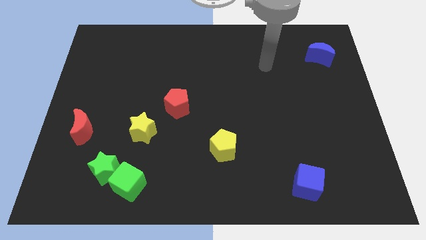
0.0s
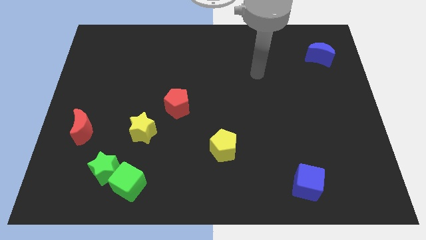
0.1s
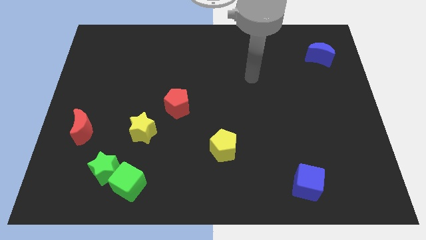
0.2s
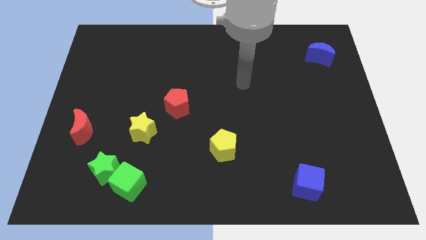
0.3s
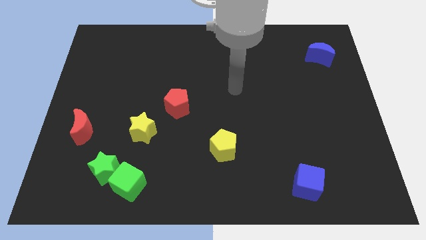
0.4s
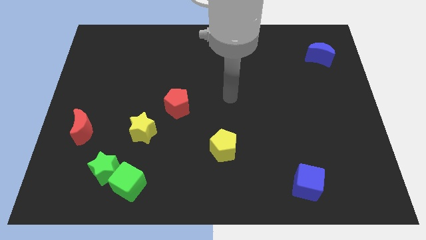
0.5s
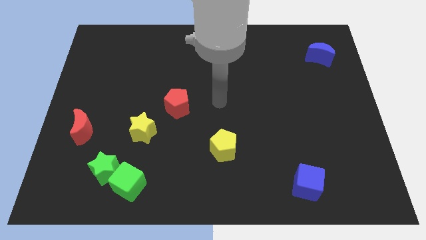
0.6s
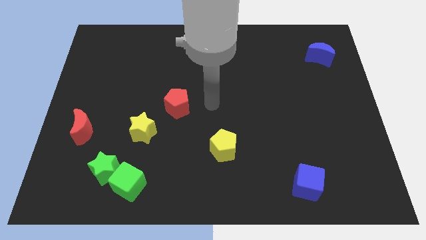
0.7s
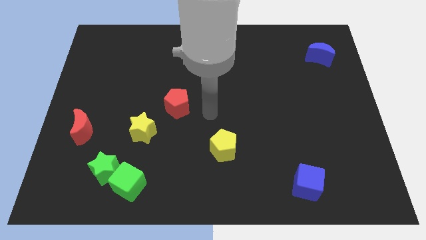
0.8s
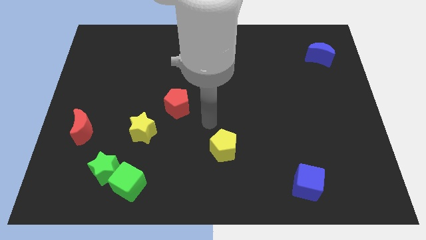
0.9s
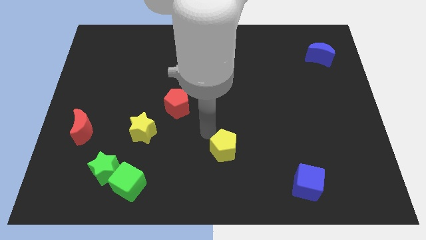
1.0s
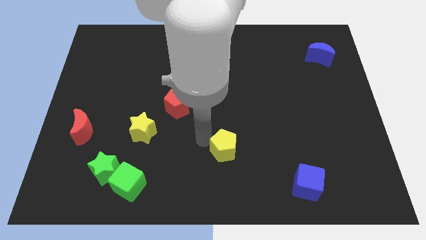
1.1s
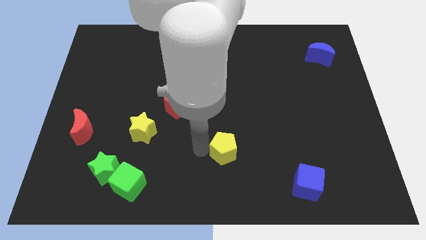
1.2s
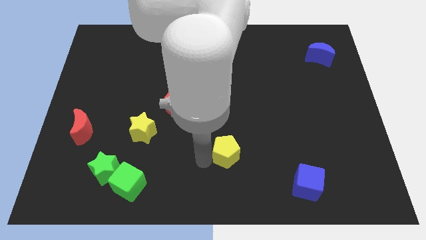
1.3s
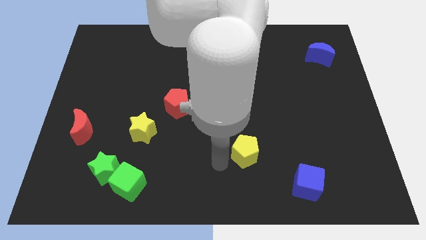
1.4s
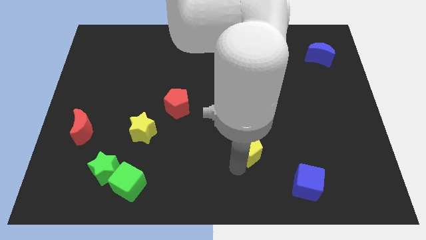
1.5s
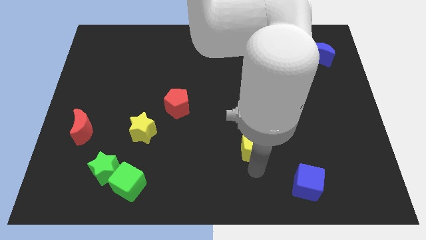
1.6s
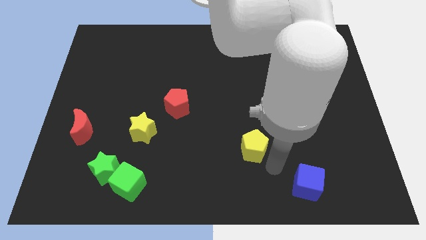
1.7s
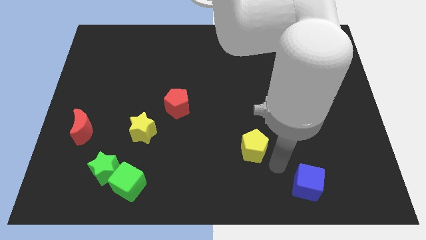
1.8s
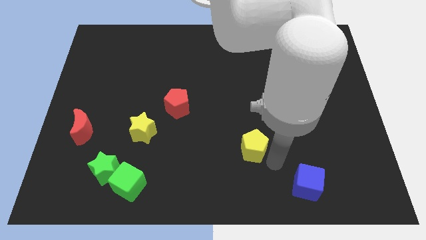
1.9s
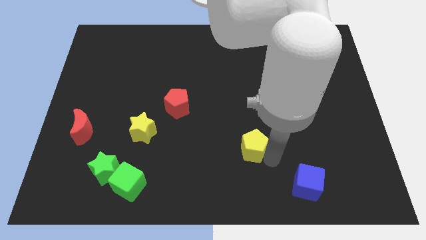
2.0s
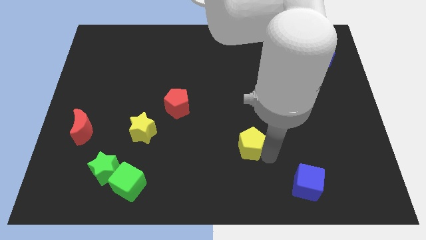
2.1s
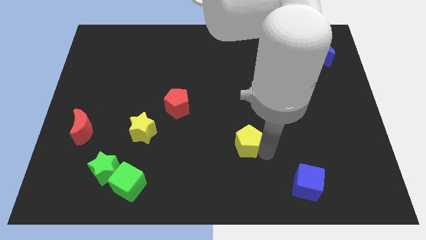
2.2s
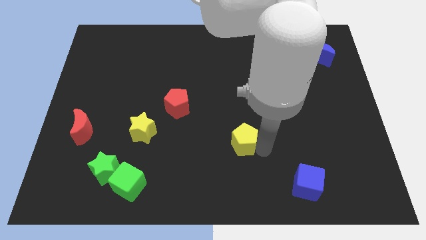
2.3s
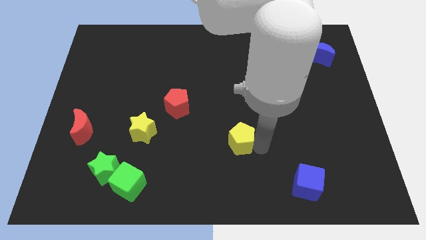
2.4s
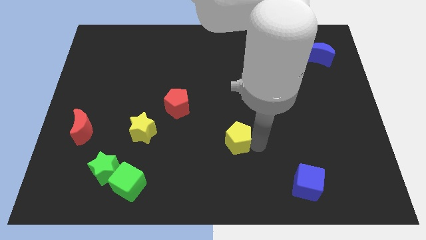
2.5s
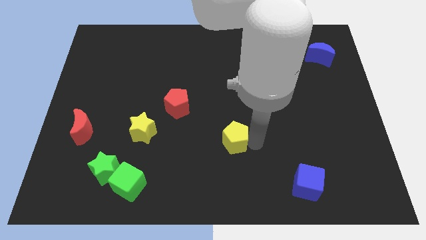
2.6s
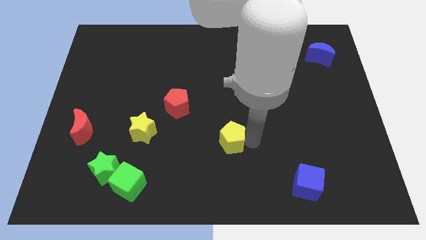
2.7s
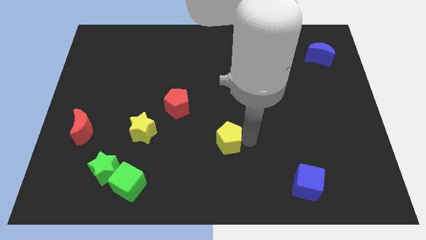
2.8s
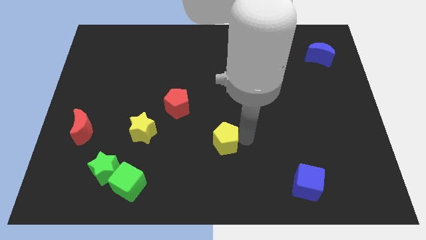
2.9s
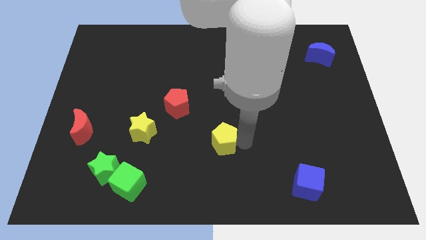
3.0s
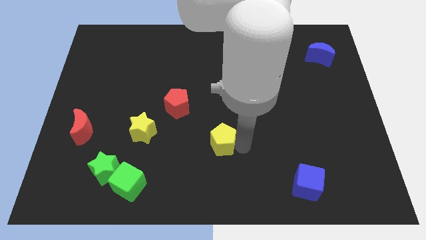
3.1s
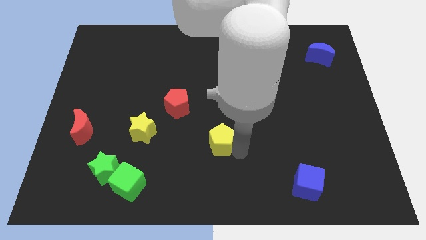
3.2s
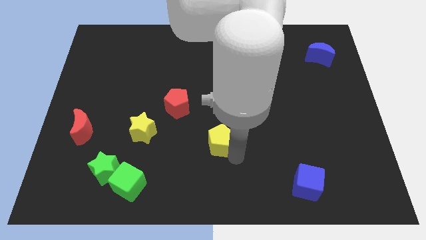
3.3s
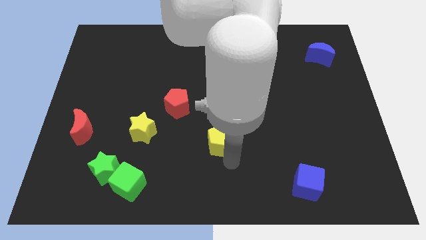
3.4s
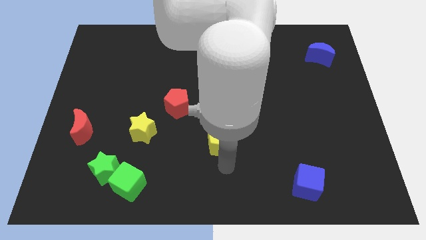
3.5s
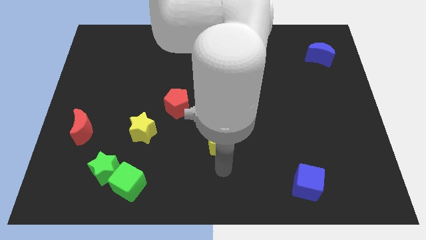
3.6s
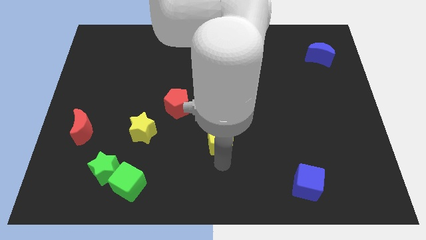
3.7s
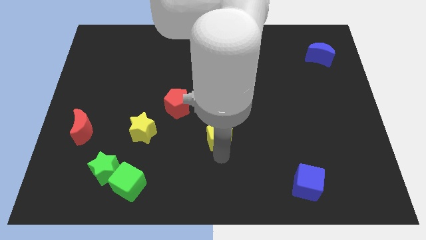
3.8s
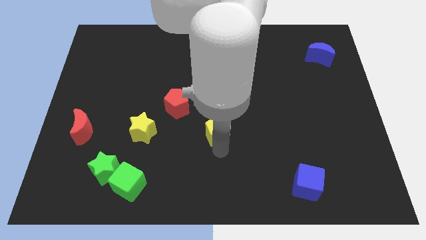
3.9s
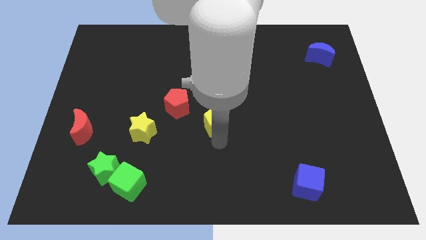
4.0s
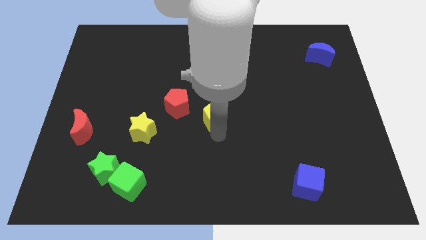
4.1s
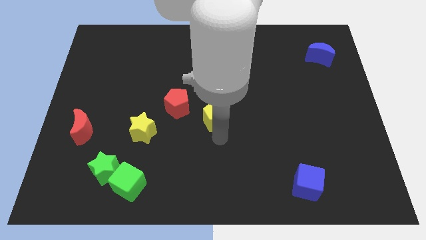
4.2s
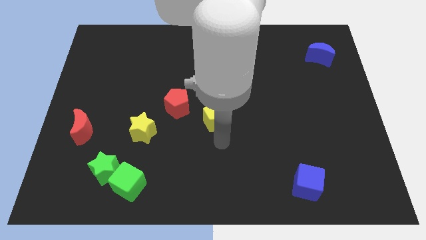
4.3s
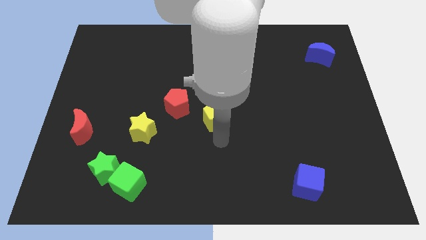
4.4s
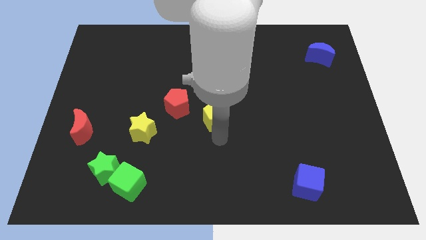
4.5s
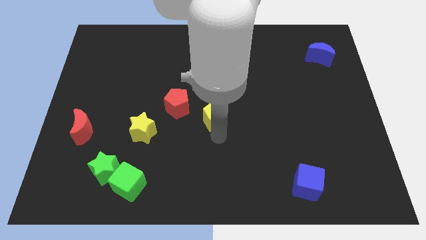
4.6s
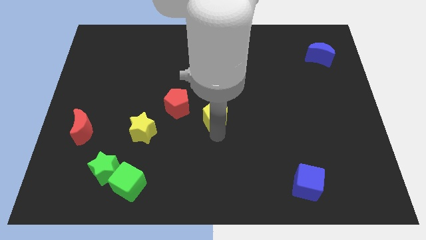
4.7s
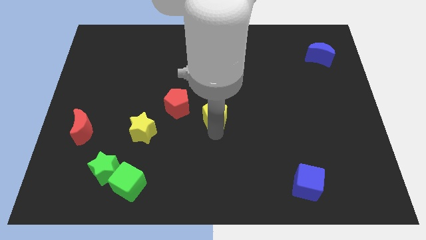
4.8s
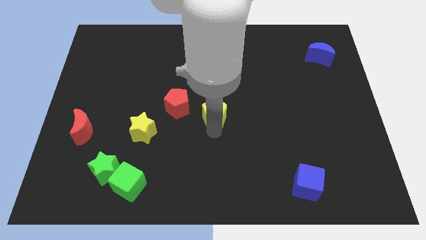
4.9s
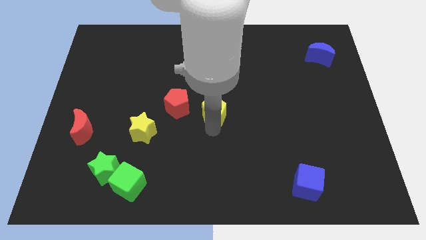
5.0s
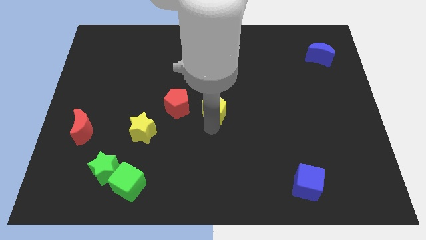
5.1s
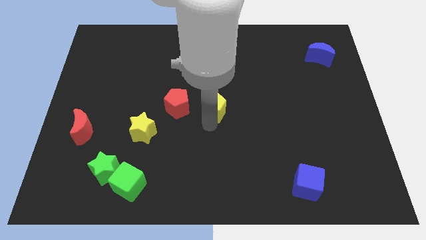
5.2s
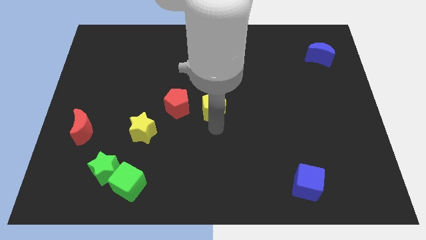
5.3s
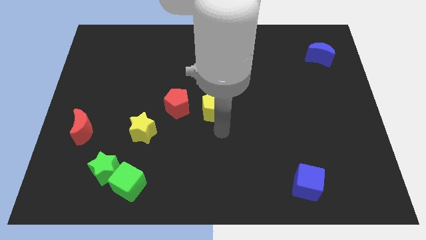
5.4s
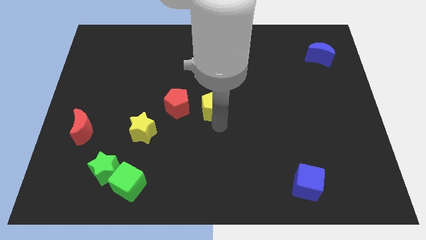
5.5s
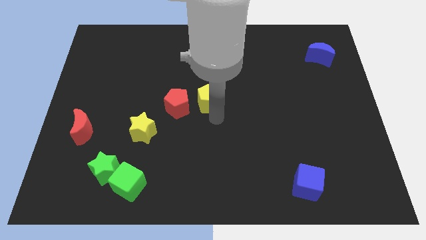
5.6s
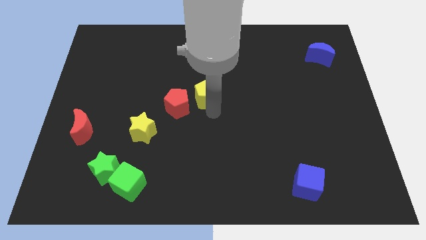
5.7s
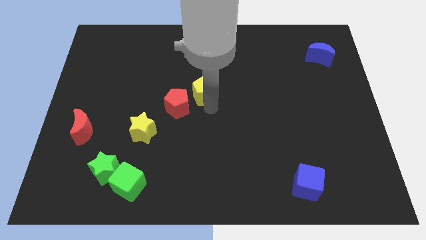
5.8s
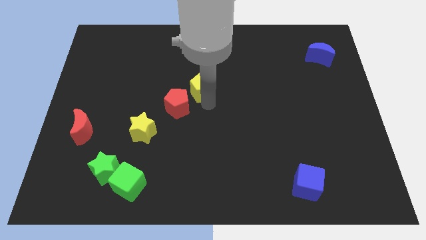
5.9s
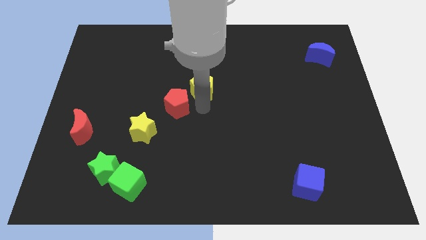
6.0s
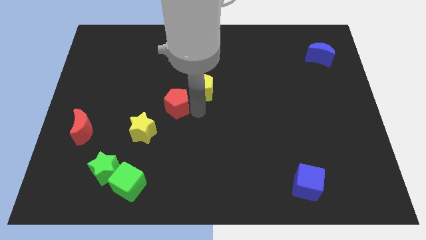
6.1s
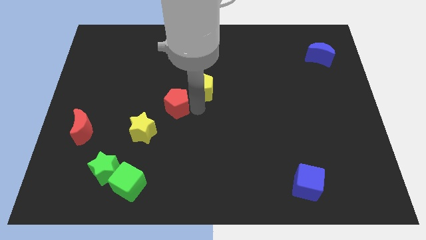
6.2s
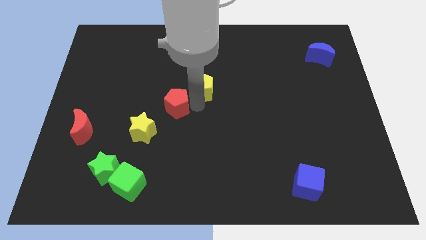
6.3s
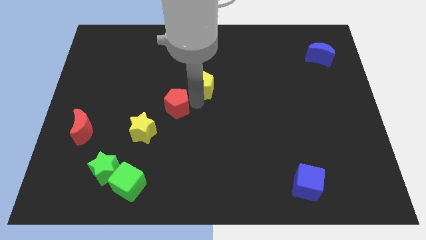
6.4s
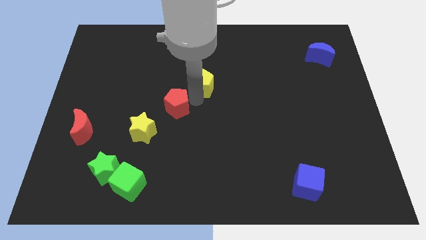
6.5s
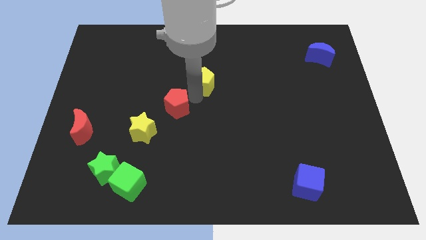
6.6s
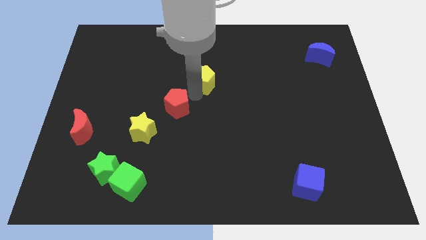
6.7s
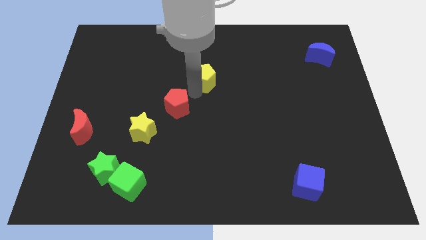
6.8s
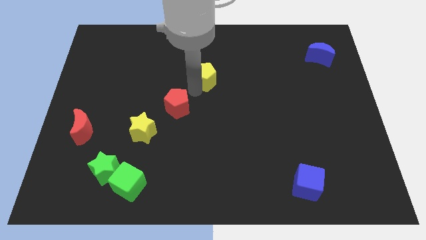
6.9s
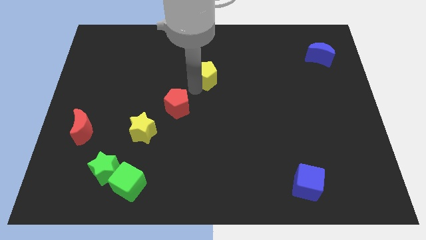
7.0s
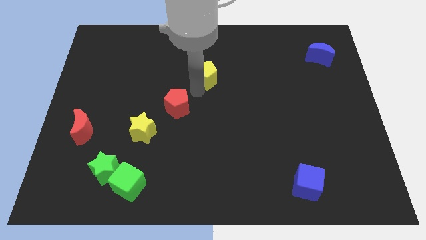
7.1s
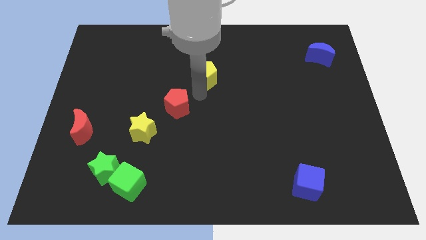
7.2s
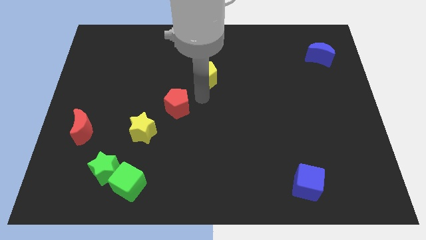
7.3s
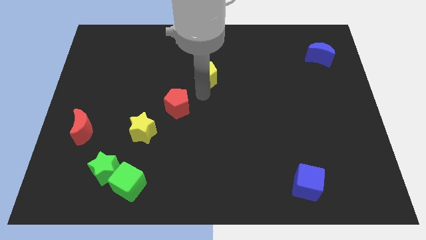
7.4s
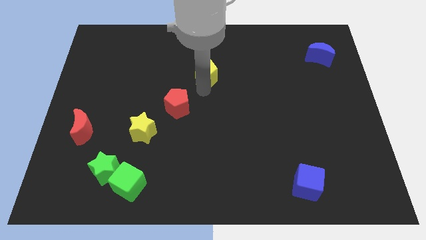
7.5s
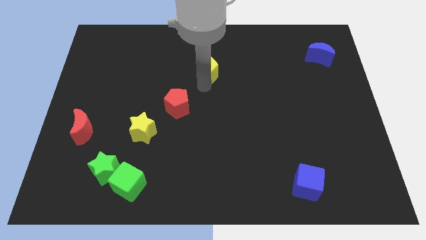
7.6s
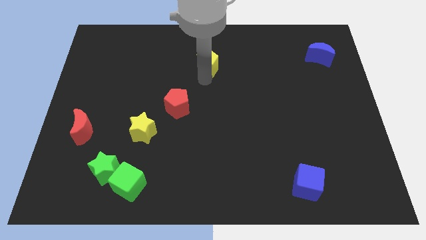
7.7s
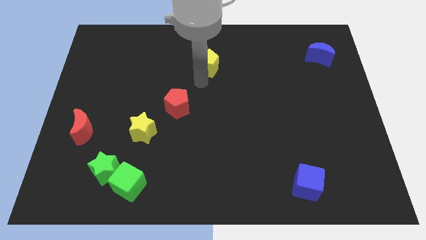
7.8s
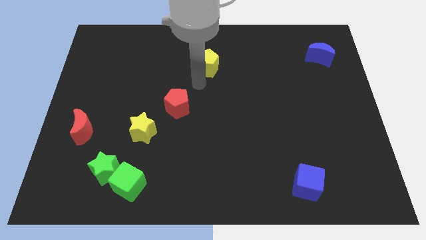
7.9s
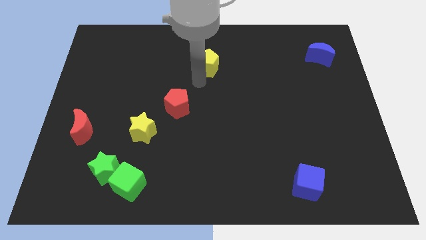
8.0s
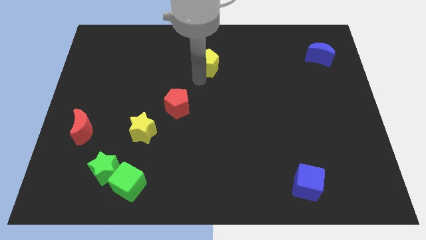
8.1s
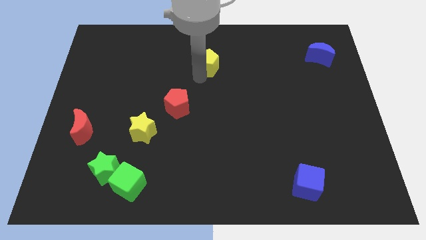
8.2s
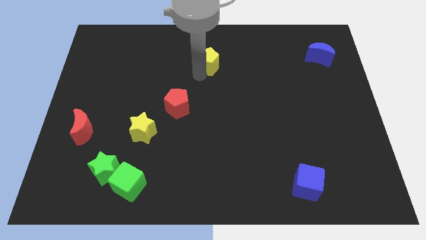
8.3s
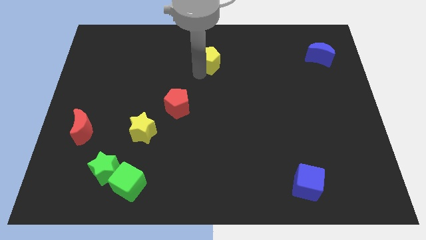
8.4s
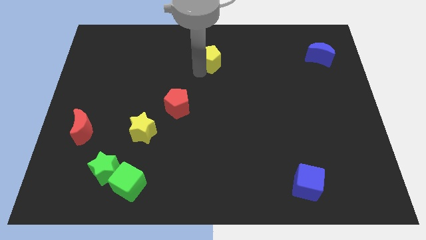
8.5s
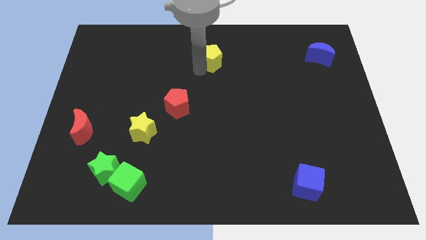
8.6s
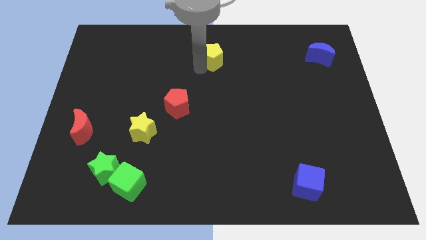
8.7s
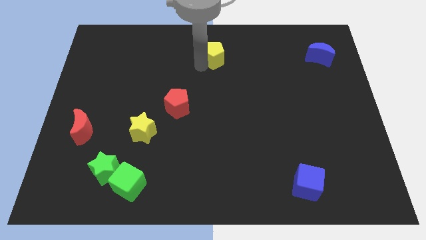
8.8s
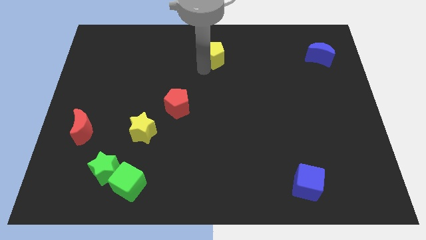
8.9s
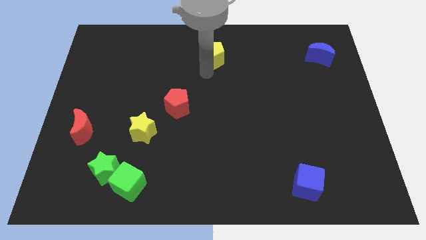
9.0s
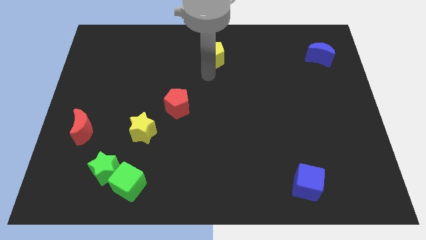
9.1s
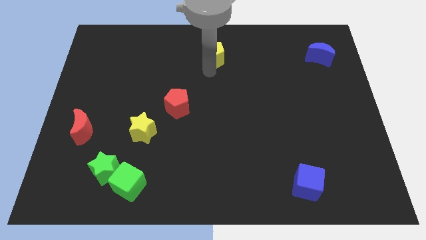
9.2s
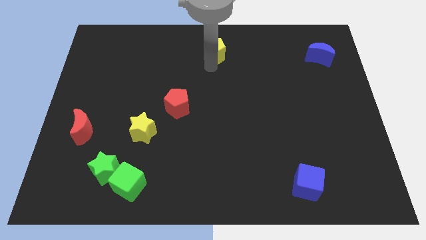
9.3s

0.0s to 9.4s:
move the yellow pentagon to the towards your base
